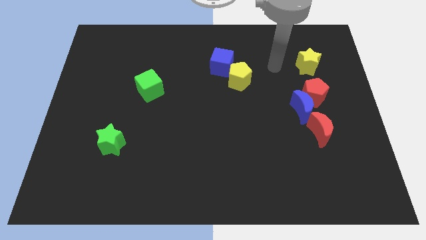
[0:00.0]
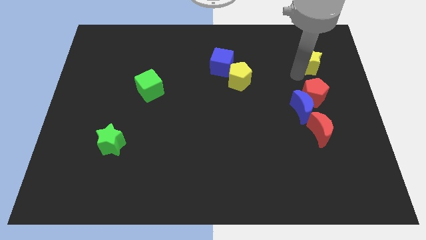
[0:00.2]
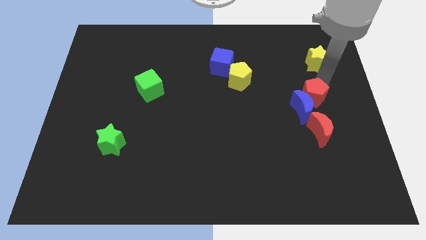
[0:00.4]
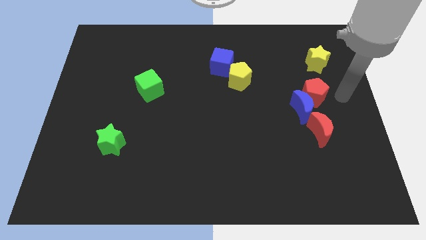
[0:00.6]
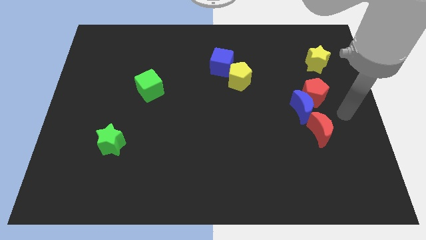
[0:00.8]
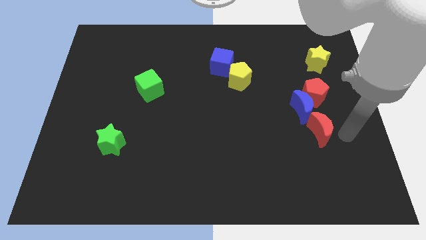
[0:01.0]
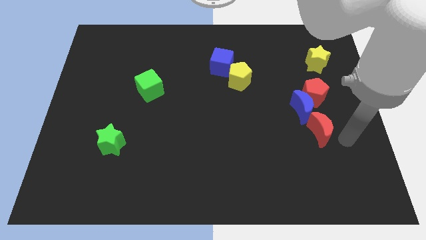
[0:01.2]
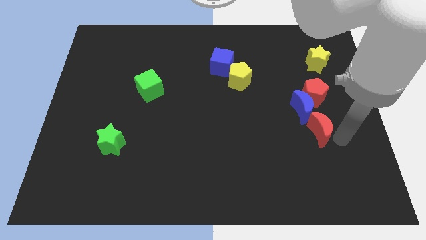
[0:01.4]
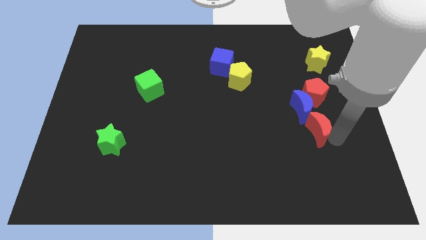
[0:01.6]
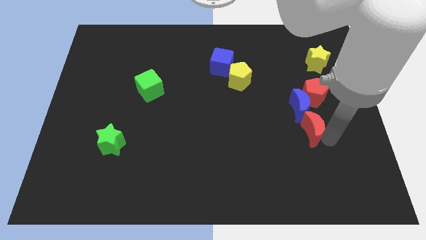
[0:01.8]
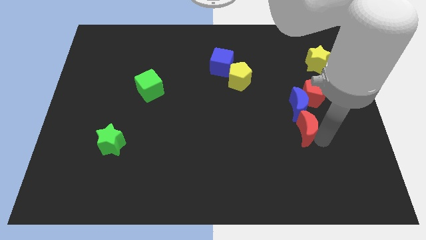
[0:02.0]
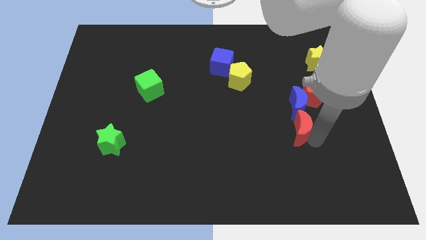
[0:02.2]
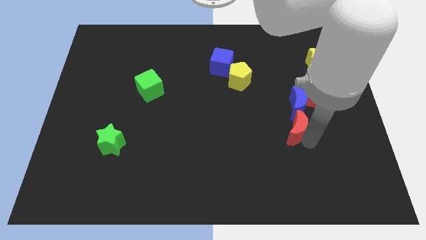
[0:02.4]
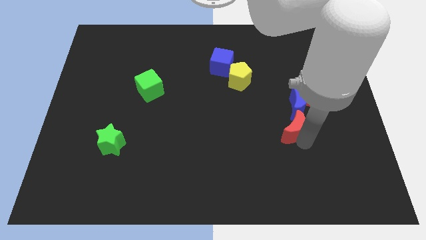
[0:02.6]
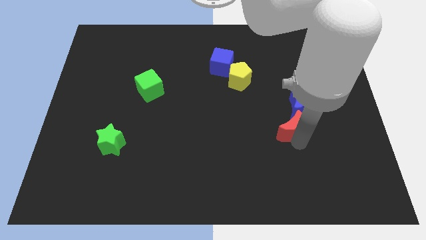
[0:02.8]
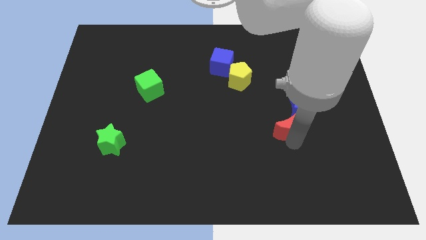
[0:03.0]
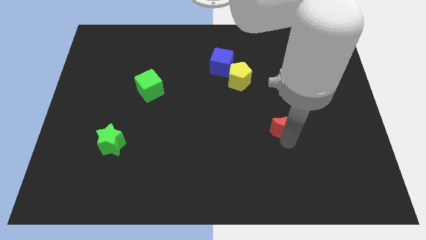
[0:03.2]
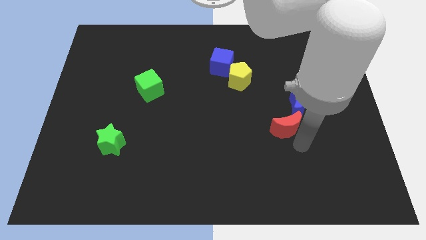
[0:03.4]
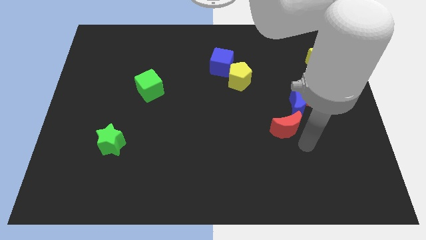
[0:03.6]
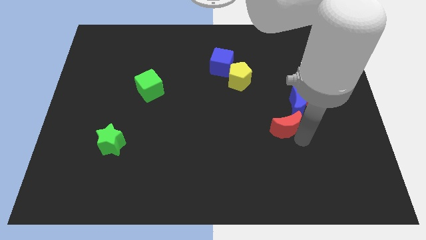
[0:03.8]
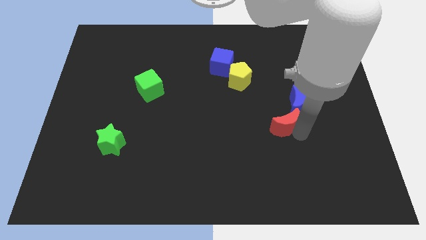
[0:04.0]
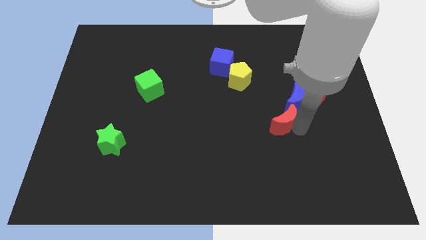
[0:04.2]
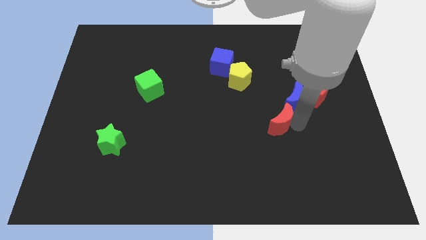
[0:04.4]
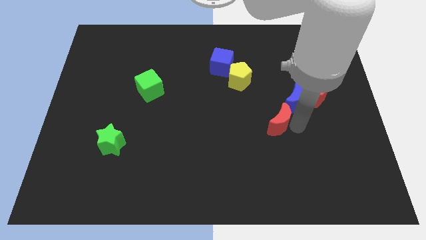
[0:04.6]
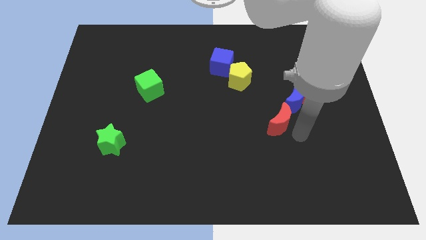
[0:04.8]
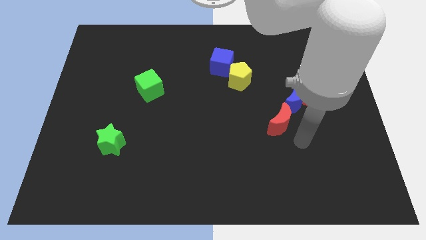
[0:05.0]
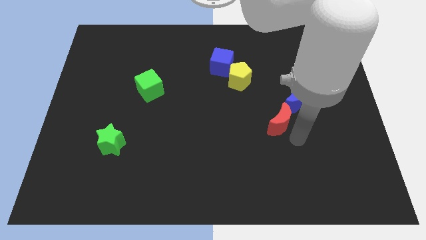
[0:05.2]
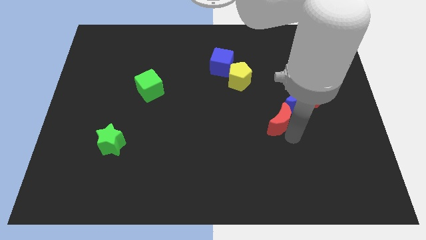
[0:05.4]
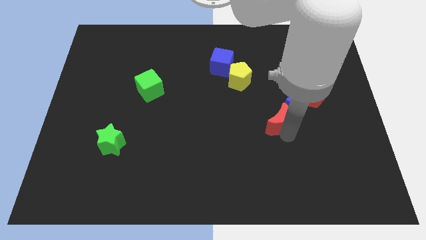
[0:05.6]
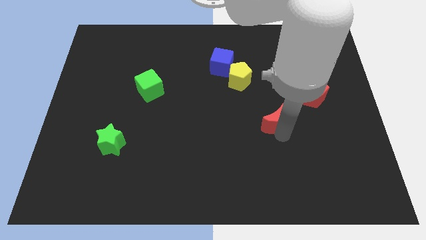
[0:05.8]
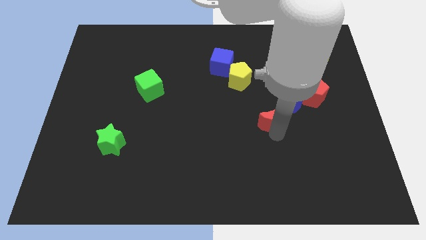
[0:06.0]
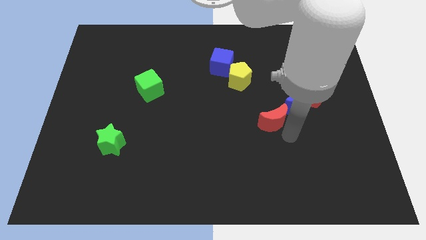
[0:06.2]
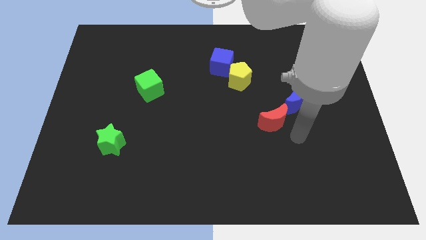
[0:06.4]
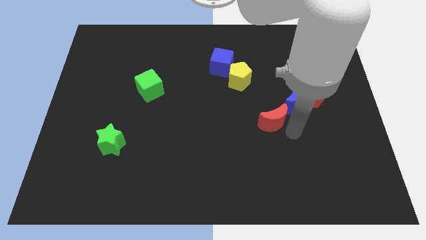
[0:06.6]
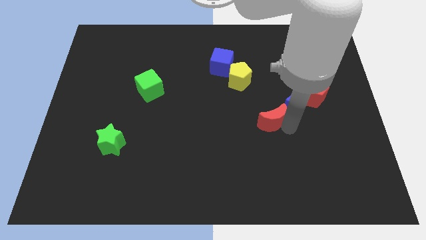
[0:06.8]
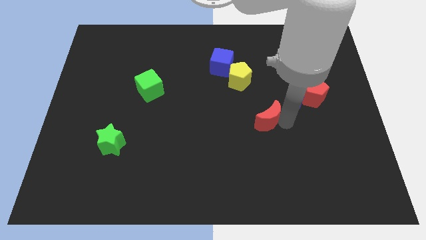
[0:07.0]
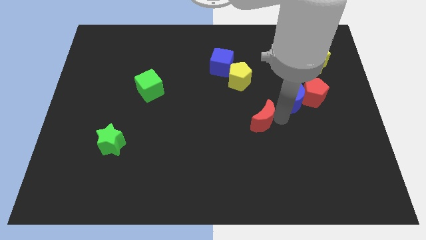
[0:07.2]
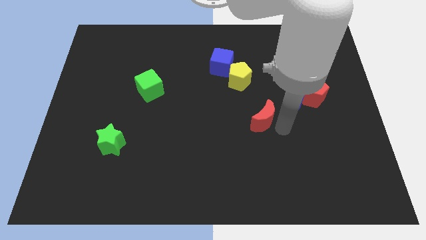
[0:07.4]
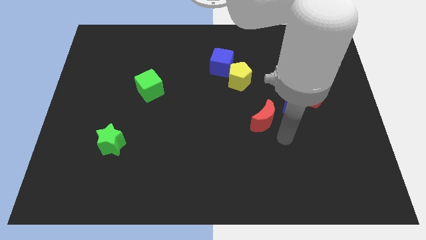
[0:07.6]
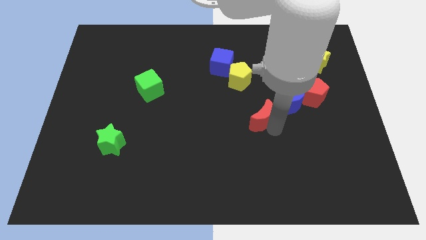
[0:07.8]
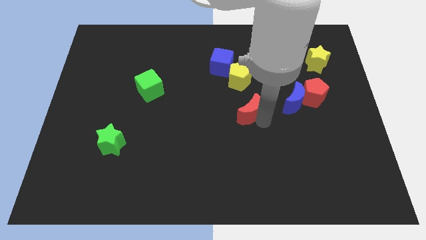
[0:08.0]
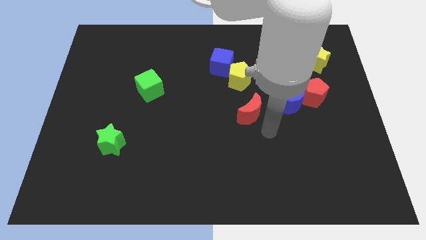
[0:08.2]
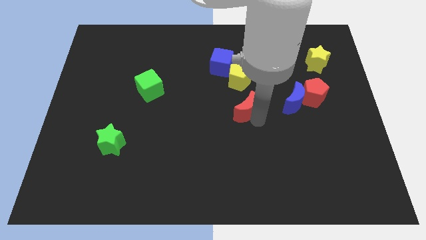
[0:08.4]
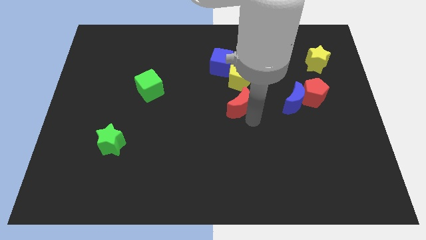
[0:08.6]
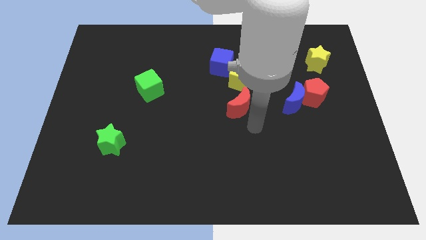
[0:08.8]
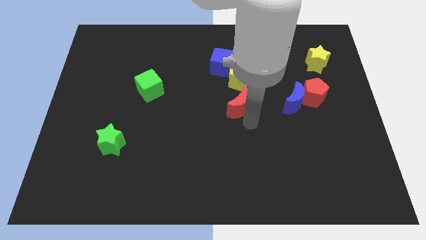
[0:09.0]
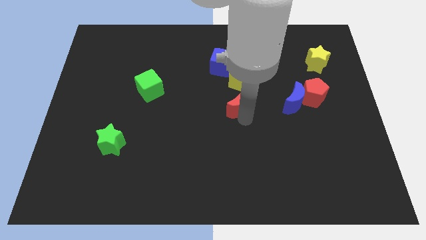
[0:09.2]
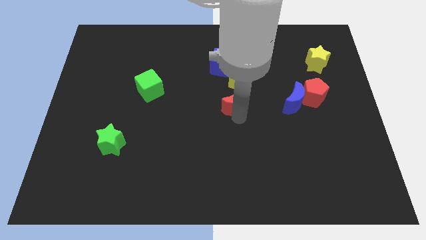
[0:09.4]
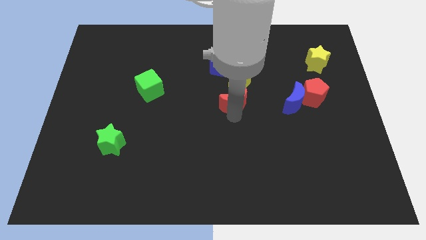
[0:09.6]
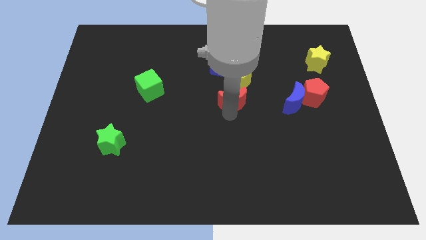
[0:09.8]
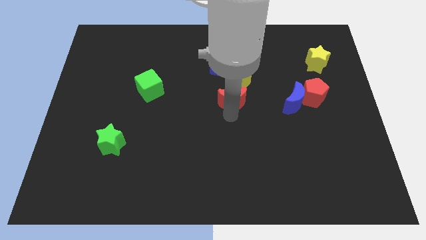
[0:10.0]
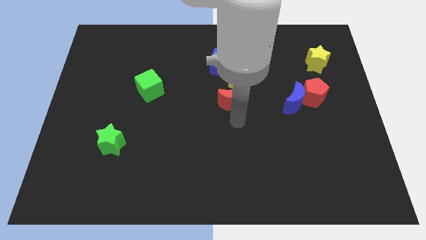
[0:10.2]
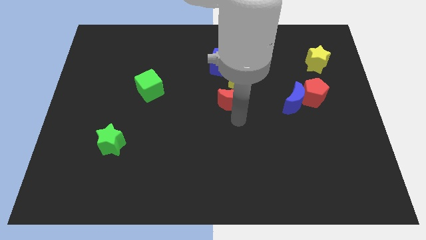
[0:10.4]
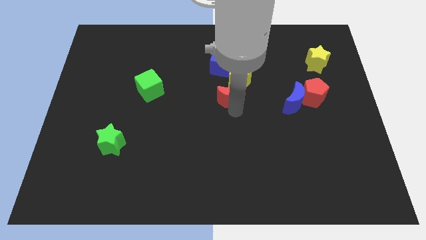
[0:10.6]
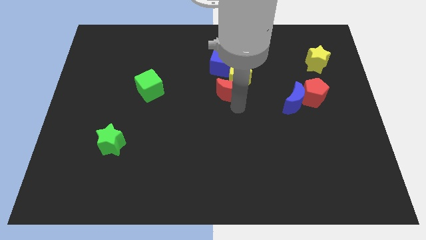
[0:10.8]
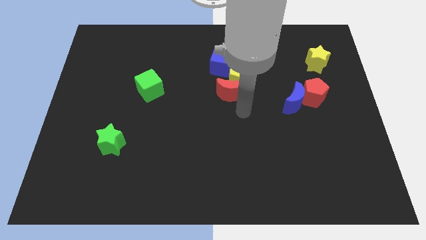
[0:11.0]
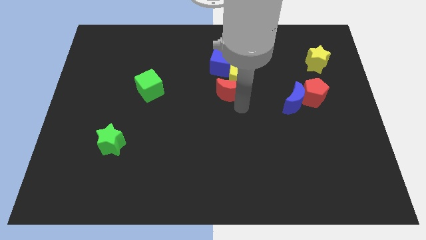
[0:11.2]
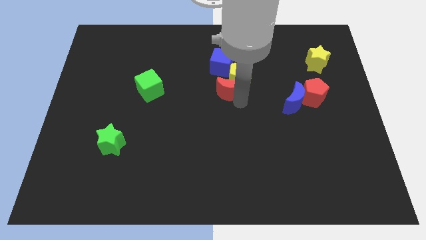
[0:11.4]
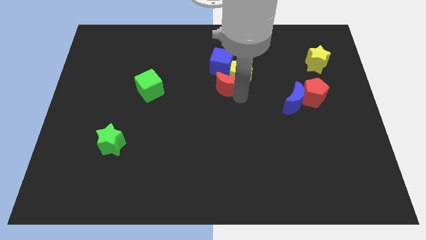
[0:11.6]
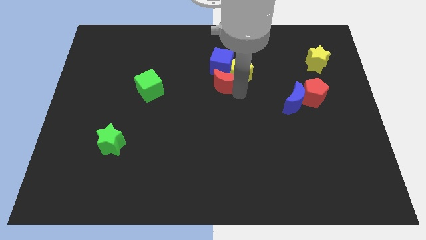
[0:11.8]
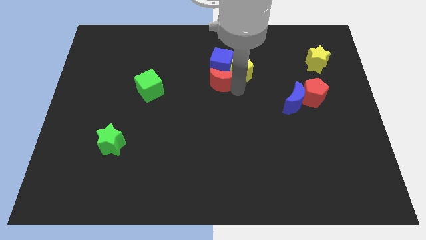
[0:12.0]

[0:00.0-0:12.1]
slide the red moon close to the blue cube
